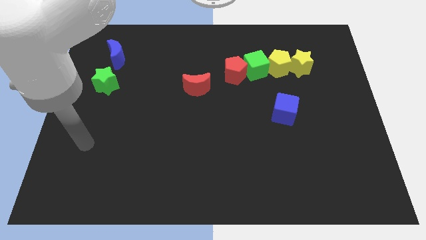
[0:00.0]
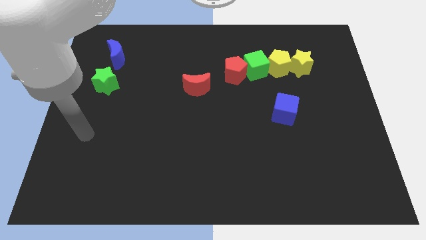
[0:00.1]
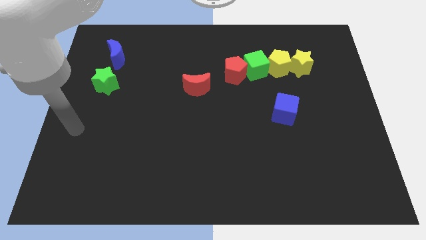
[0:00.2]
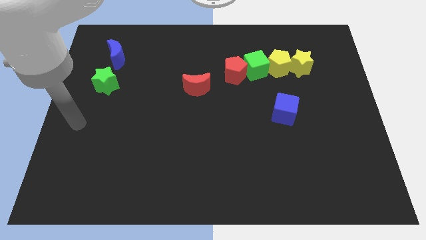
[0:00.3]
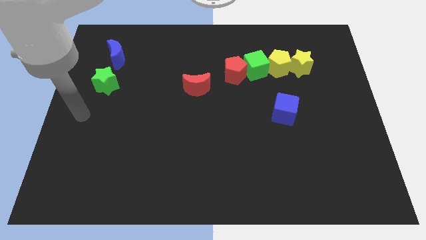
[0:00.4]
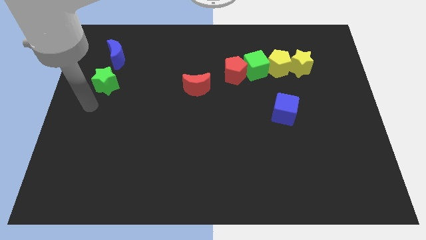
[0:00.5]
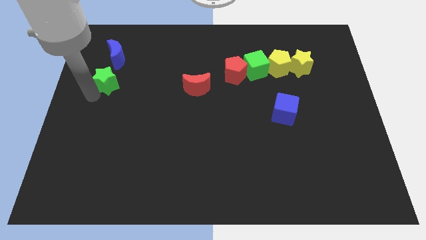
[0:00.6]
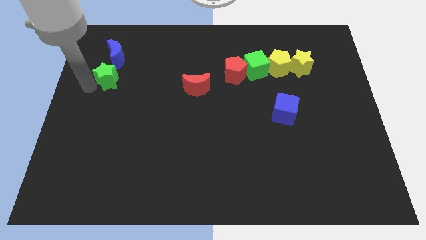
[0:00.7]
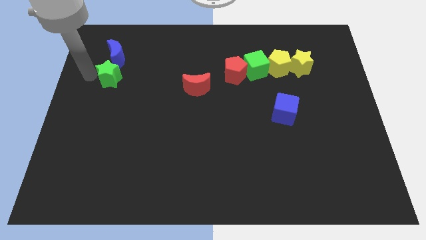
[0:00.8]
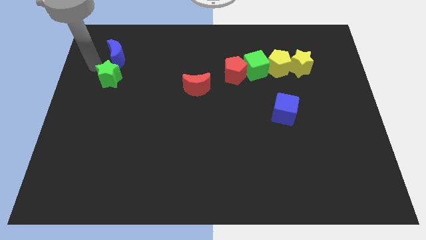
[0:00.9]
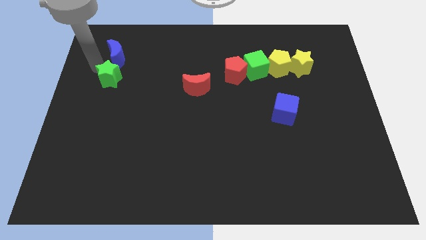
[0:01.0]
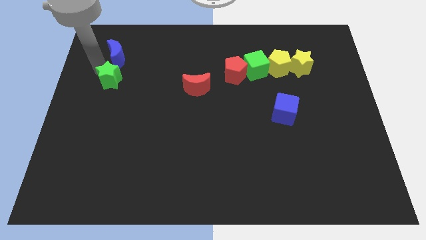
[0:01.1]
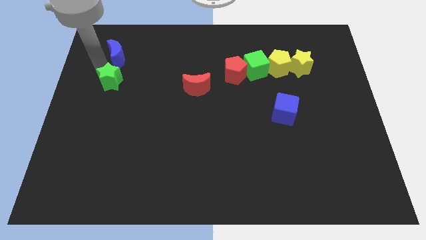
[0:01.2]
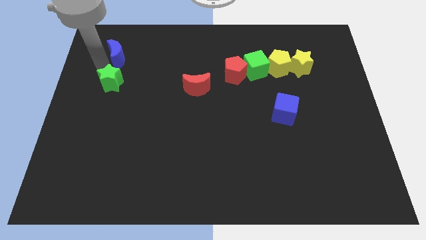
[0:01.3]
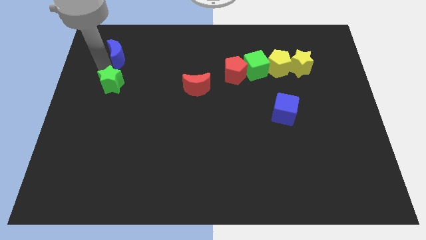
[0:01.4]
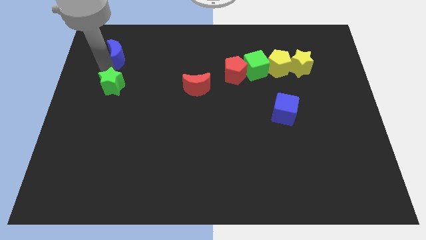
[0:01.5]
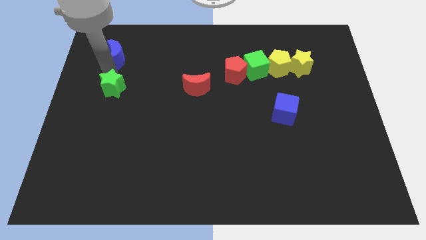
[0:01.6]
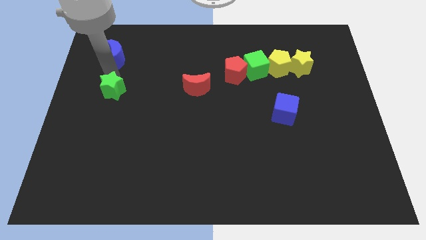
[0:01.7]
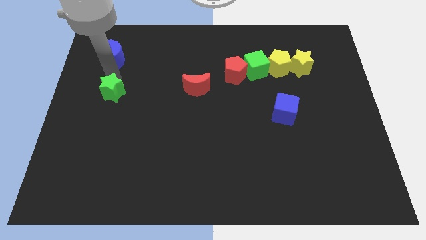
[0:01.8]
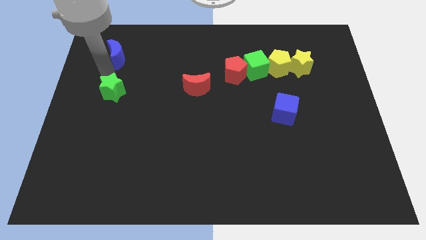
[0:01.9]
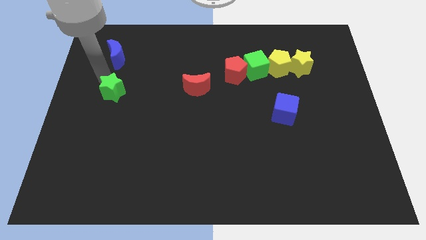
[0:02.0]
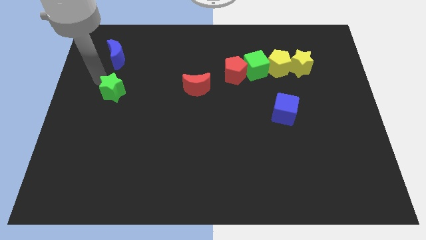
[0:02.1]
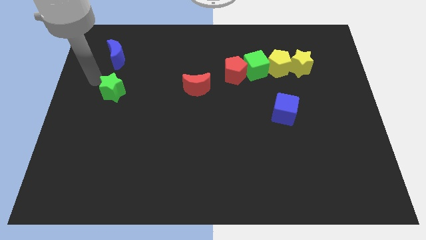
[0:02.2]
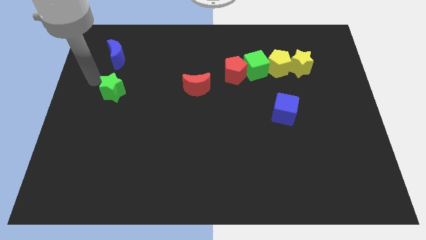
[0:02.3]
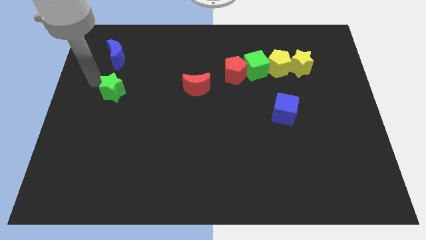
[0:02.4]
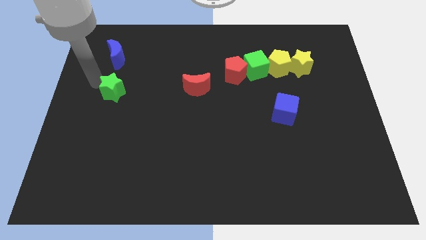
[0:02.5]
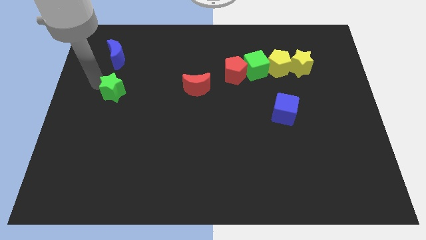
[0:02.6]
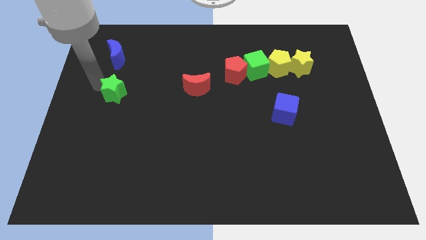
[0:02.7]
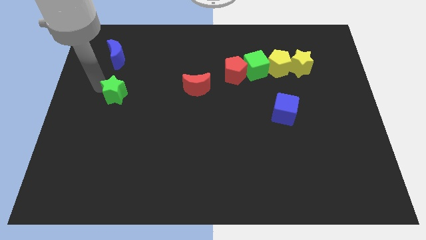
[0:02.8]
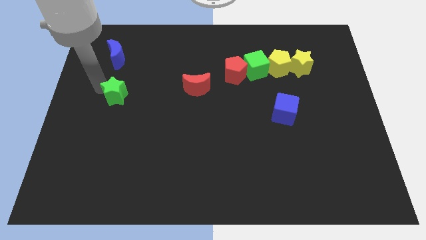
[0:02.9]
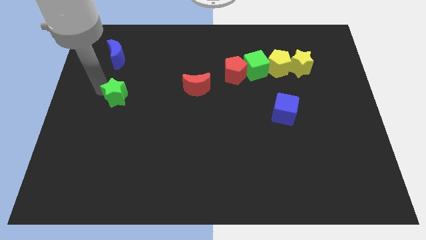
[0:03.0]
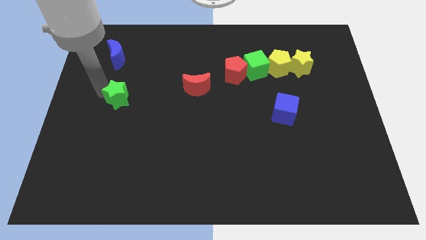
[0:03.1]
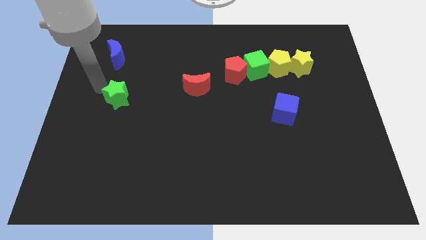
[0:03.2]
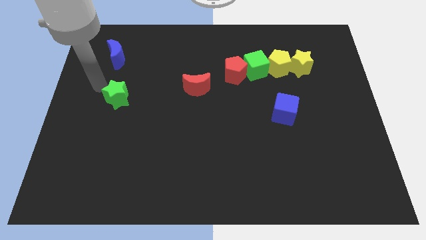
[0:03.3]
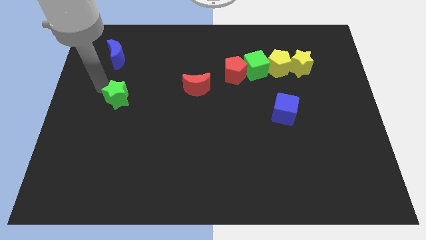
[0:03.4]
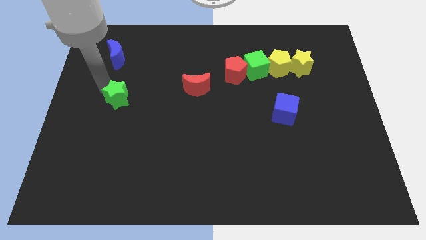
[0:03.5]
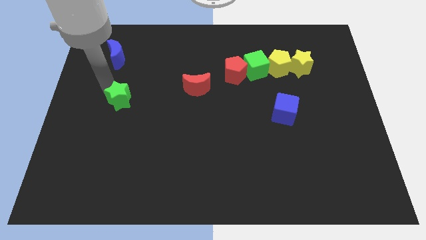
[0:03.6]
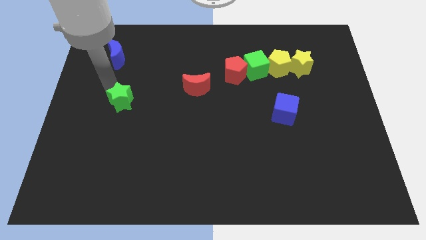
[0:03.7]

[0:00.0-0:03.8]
slightly push the green star down and to the right diagonally

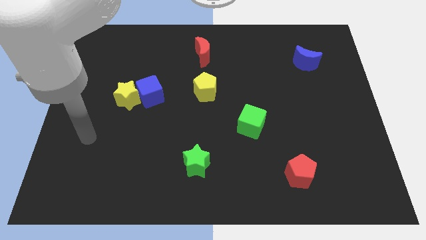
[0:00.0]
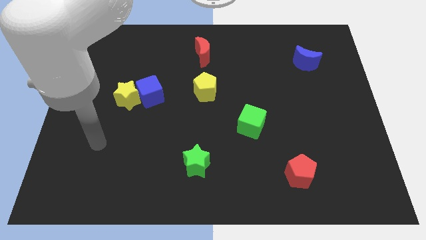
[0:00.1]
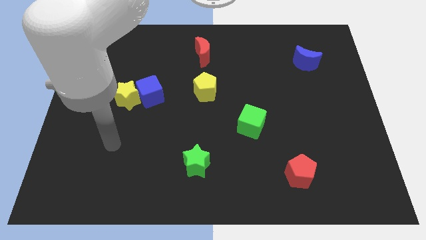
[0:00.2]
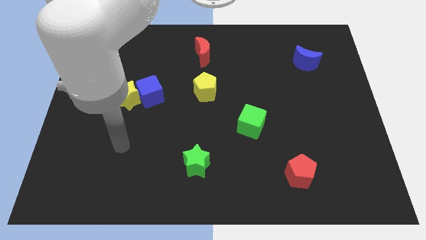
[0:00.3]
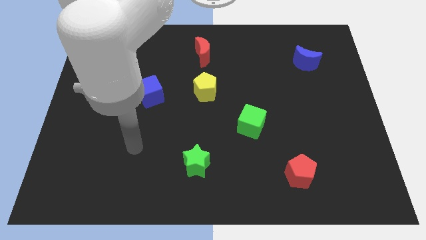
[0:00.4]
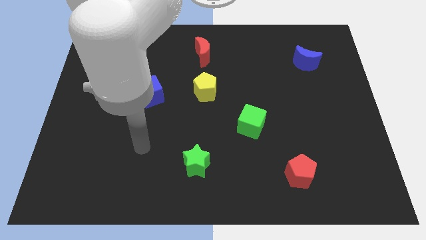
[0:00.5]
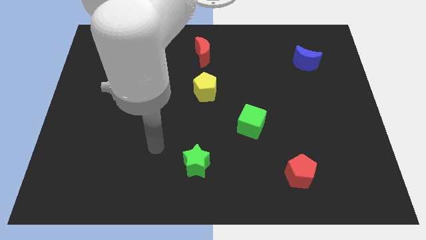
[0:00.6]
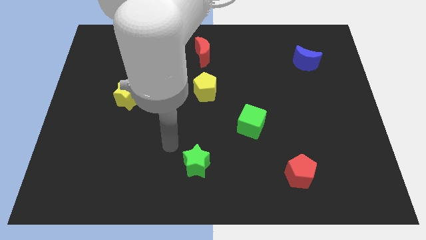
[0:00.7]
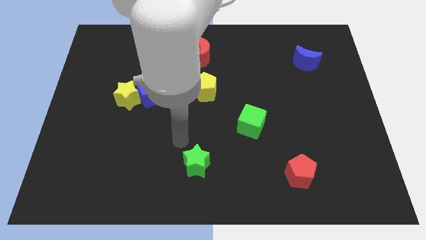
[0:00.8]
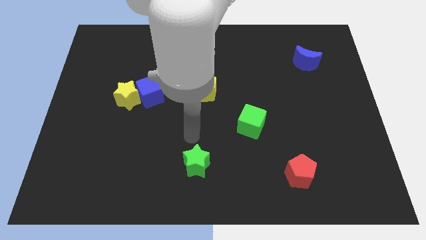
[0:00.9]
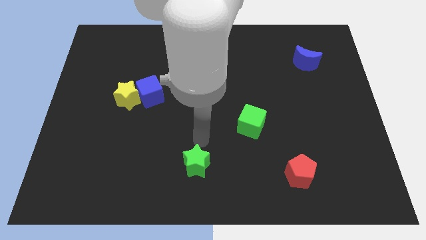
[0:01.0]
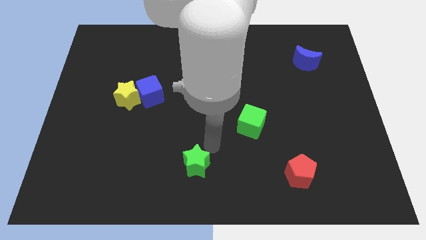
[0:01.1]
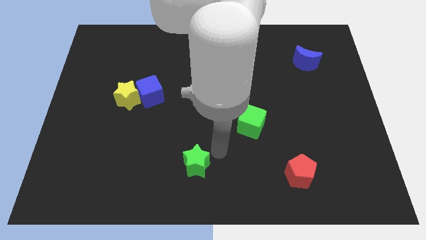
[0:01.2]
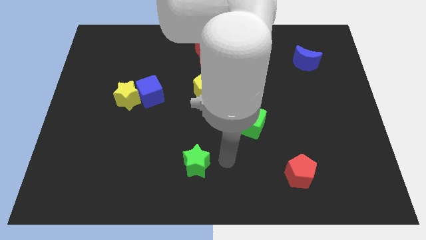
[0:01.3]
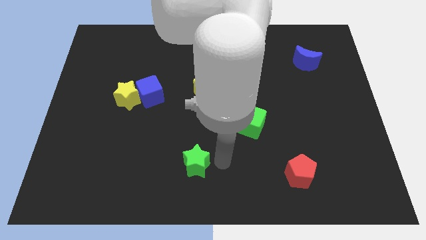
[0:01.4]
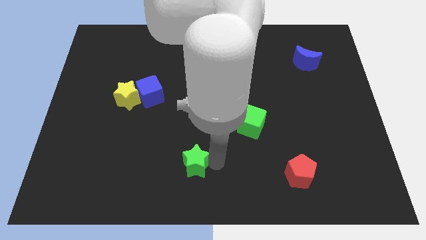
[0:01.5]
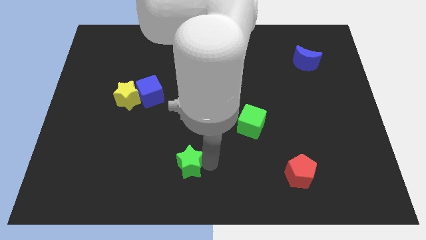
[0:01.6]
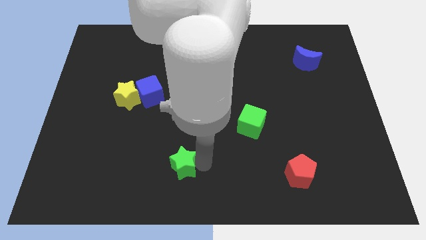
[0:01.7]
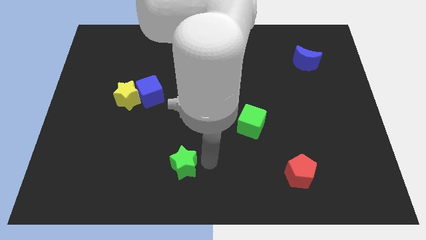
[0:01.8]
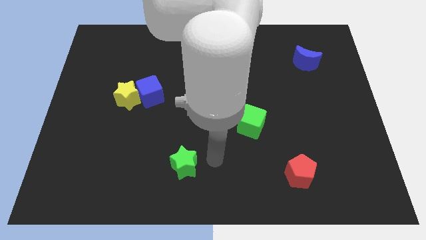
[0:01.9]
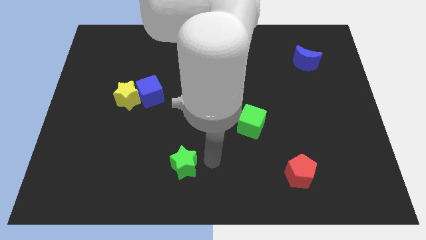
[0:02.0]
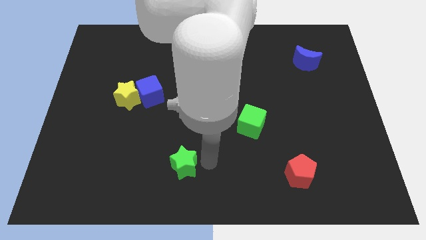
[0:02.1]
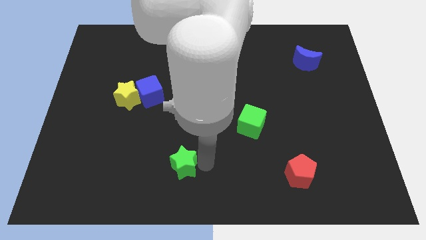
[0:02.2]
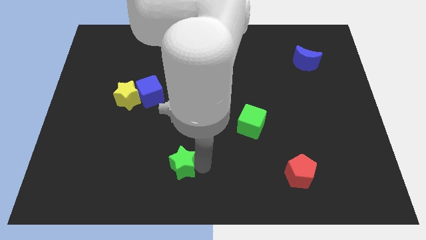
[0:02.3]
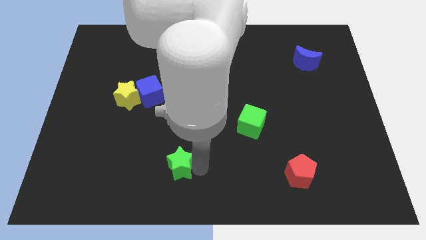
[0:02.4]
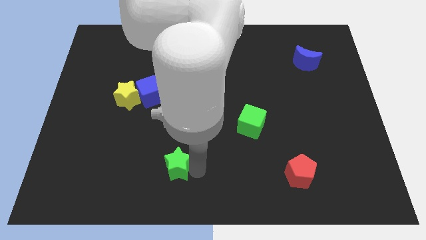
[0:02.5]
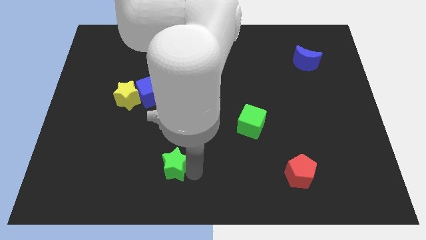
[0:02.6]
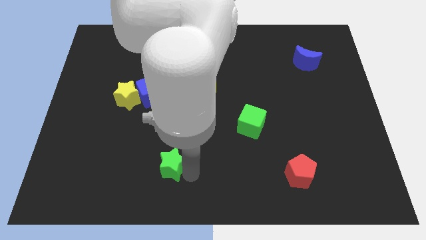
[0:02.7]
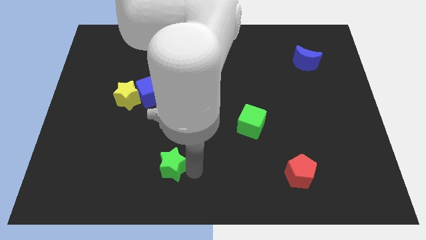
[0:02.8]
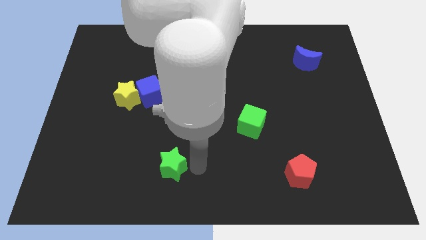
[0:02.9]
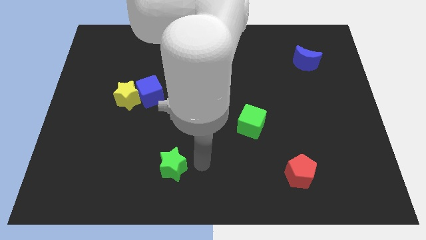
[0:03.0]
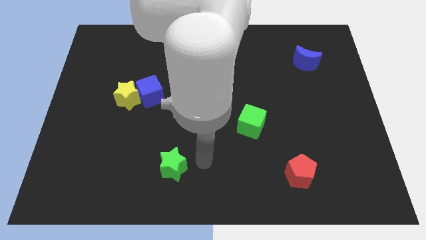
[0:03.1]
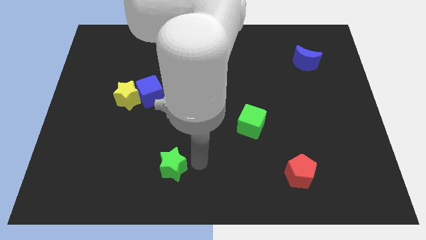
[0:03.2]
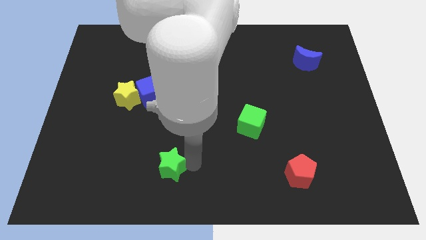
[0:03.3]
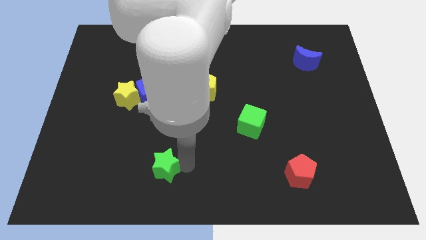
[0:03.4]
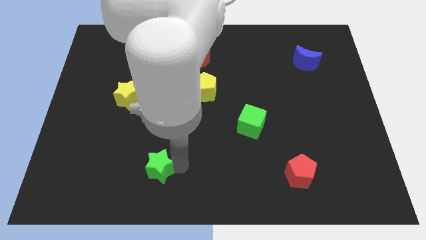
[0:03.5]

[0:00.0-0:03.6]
slide the green star to the left a bit

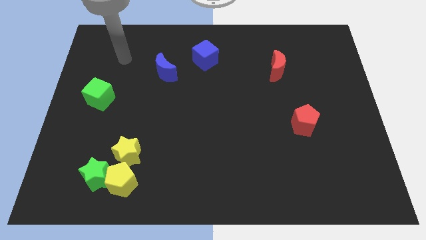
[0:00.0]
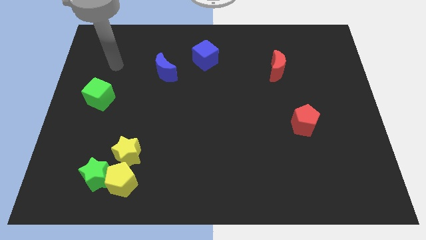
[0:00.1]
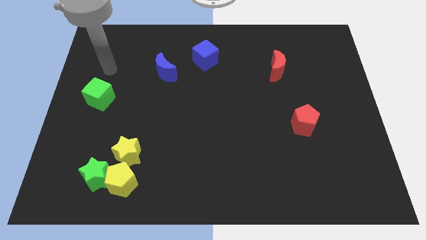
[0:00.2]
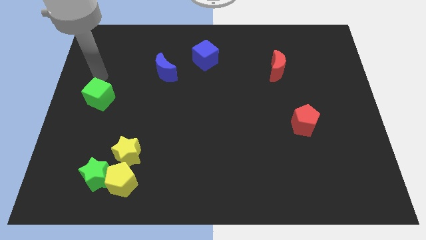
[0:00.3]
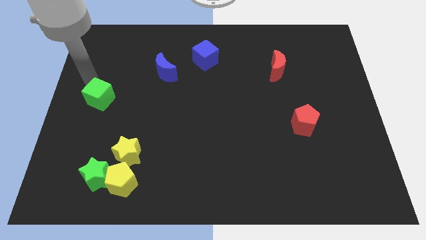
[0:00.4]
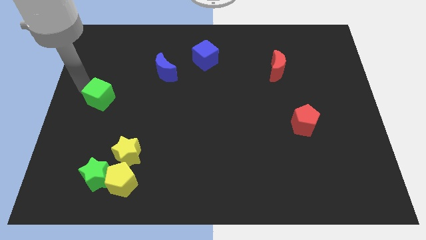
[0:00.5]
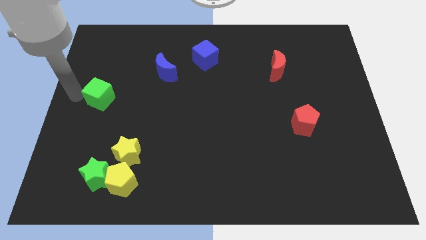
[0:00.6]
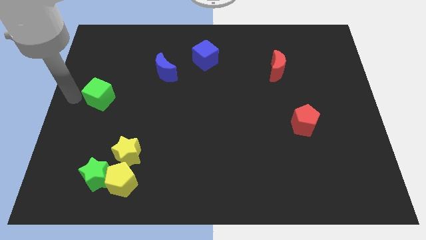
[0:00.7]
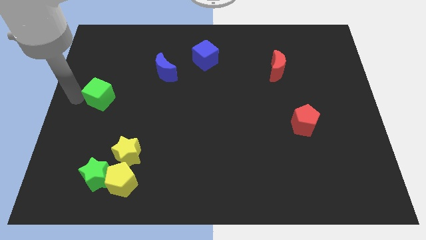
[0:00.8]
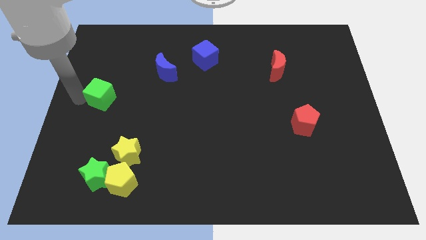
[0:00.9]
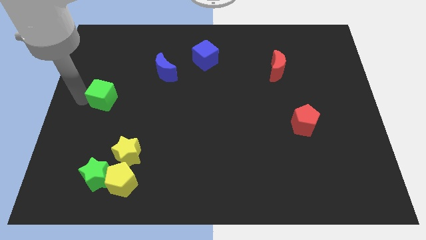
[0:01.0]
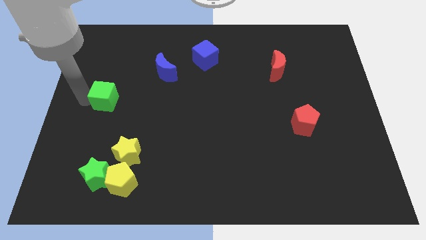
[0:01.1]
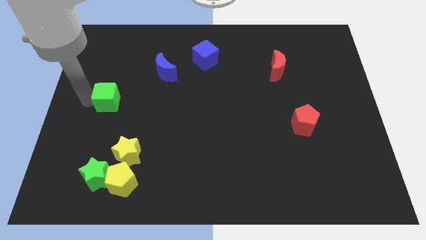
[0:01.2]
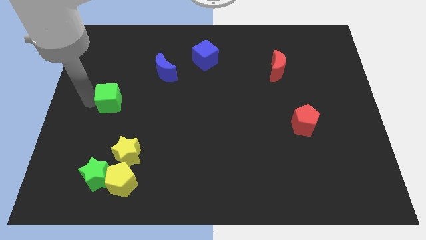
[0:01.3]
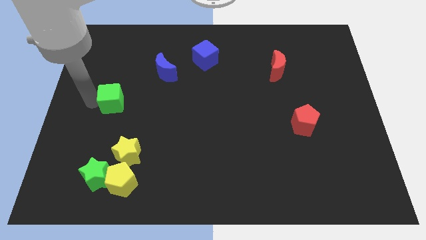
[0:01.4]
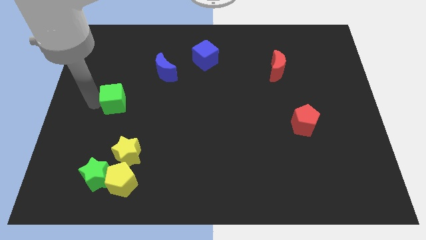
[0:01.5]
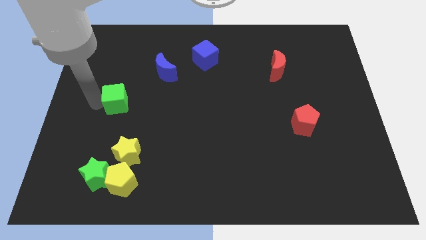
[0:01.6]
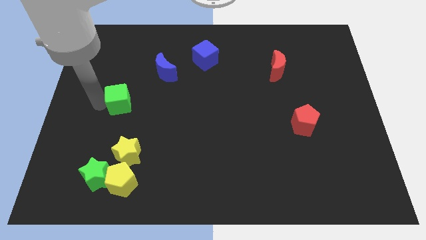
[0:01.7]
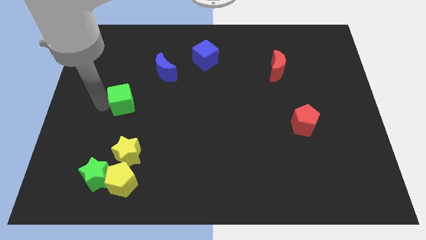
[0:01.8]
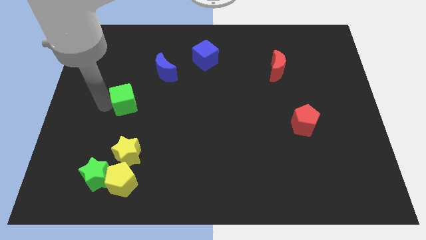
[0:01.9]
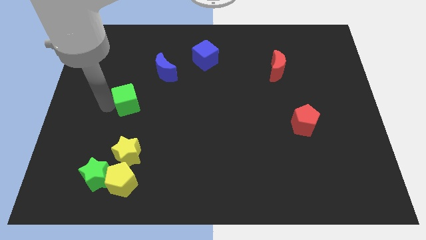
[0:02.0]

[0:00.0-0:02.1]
push the green cube a little to the right
